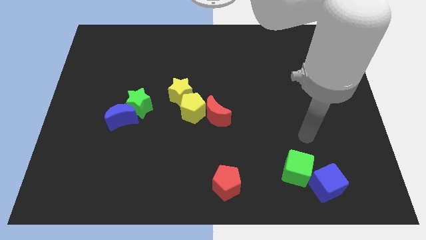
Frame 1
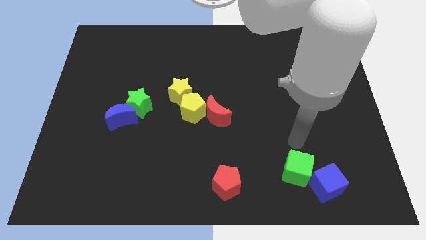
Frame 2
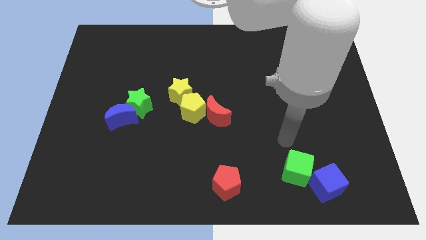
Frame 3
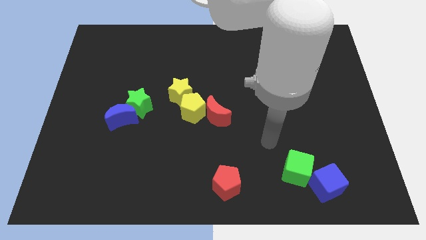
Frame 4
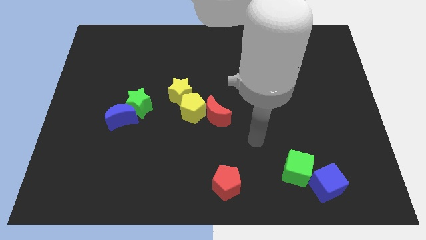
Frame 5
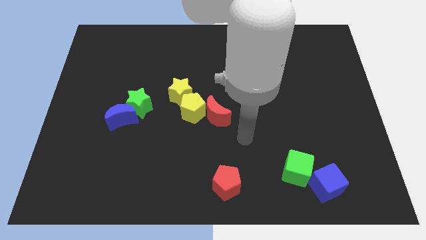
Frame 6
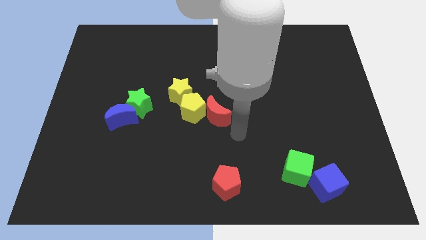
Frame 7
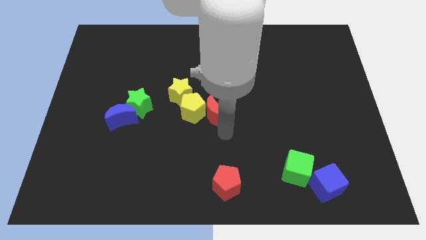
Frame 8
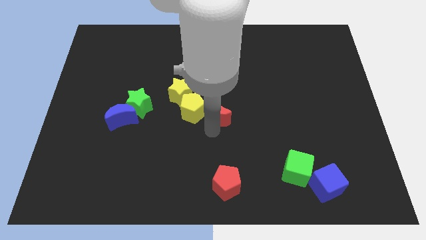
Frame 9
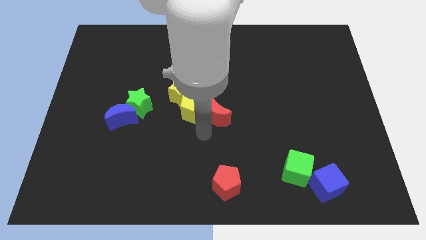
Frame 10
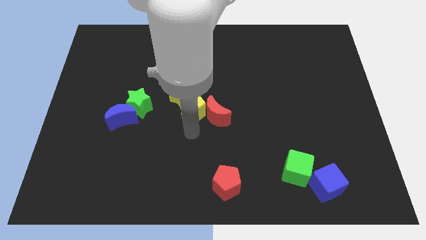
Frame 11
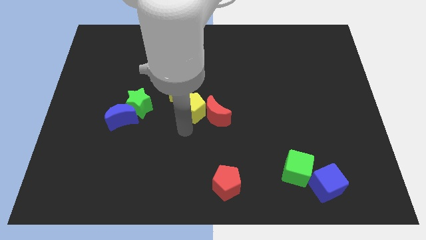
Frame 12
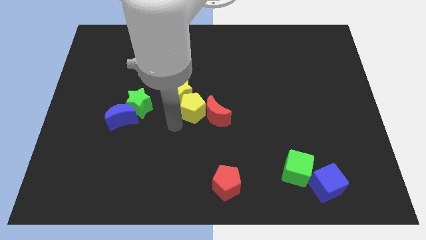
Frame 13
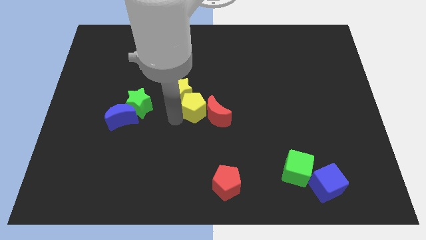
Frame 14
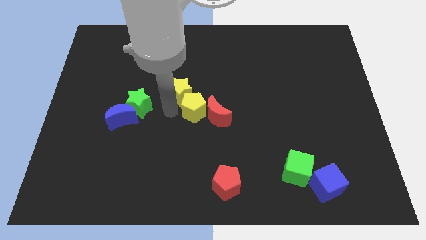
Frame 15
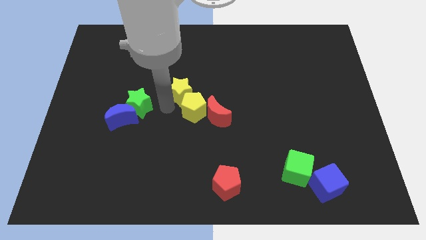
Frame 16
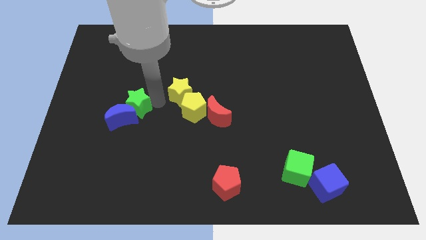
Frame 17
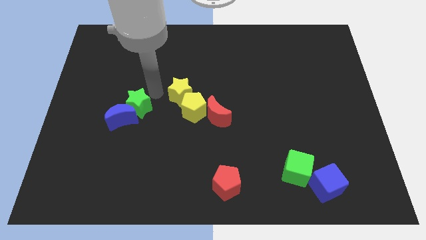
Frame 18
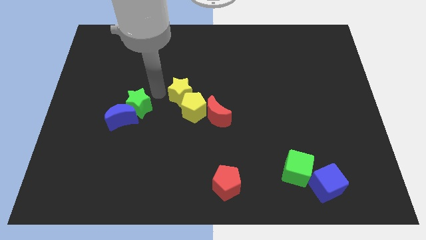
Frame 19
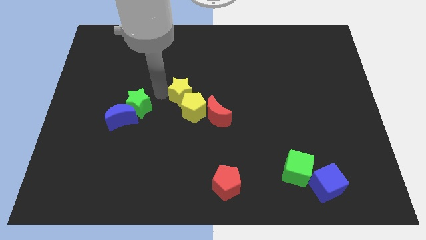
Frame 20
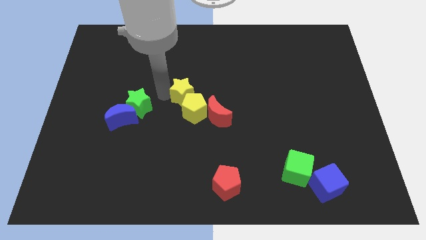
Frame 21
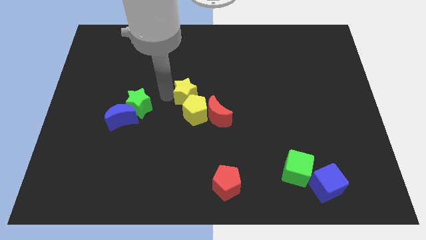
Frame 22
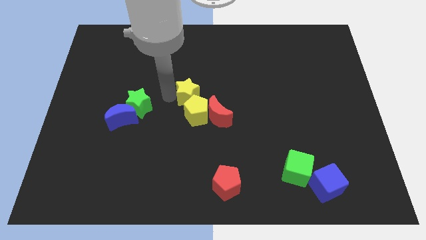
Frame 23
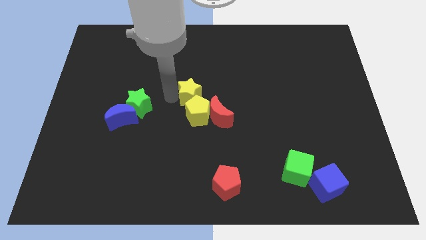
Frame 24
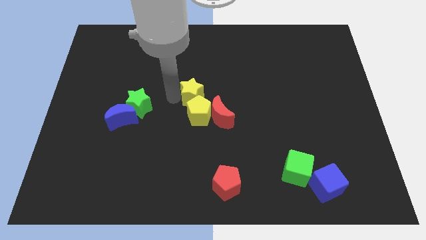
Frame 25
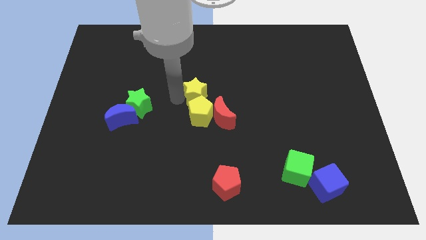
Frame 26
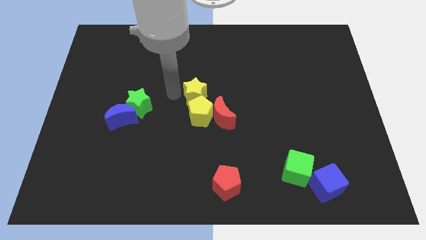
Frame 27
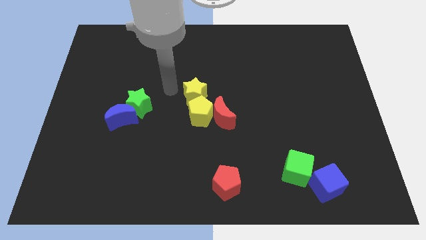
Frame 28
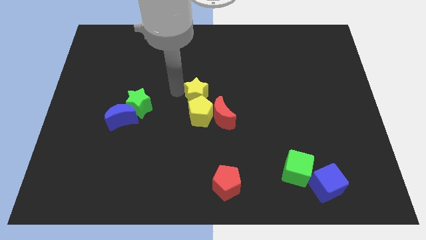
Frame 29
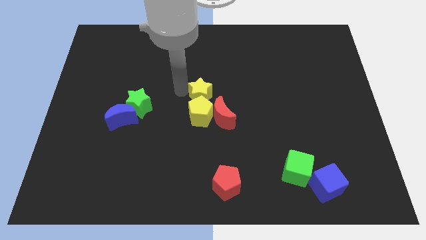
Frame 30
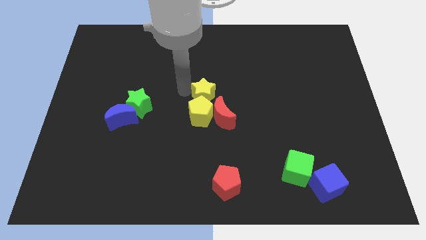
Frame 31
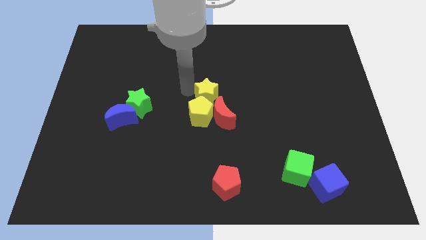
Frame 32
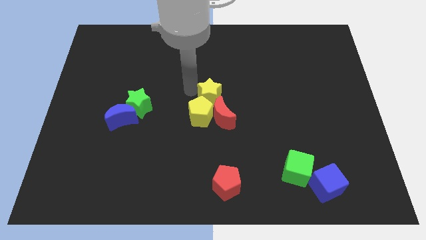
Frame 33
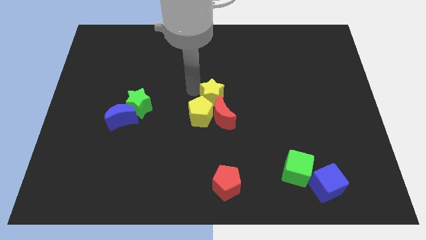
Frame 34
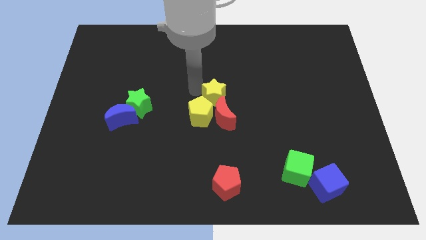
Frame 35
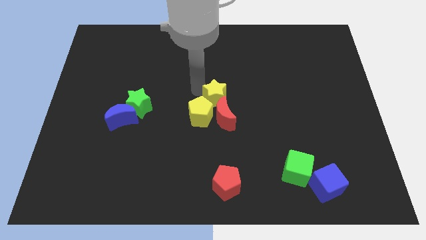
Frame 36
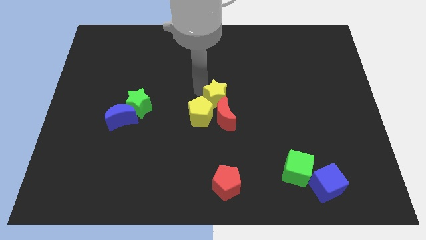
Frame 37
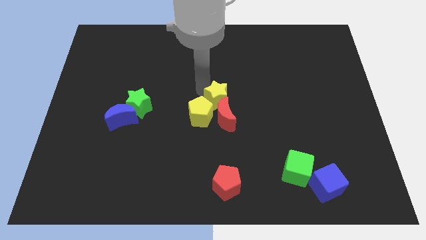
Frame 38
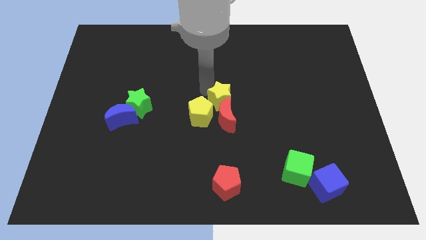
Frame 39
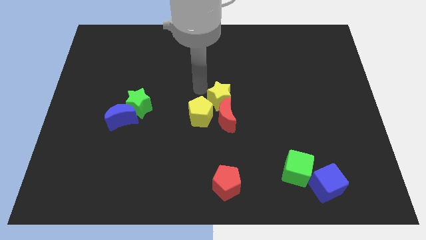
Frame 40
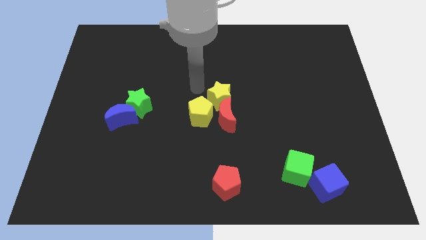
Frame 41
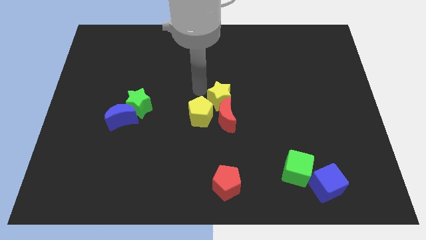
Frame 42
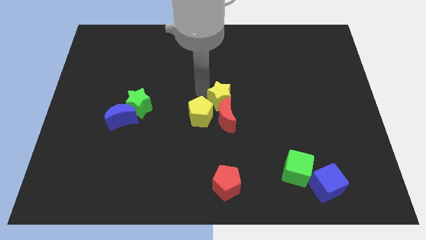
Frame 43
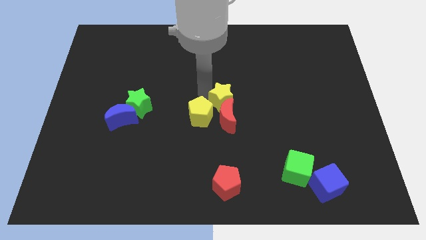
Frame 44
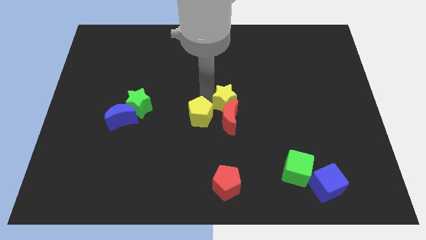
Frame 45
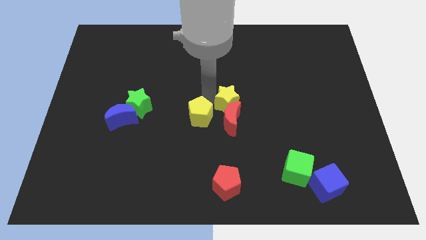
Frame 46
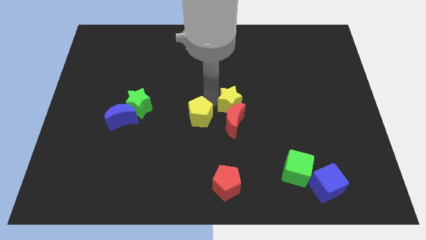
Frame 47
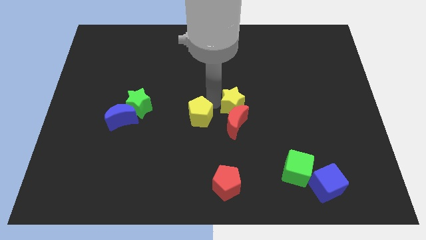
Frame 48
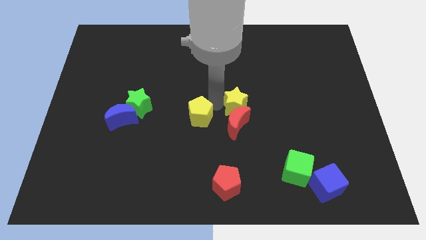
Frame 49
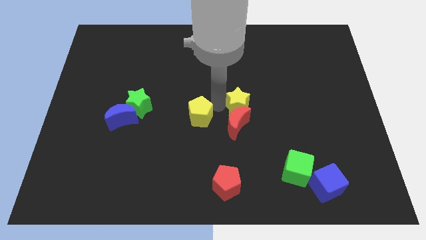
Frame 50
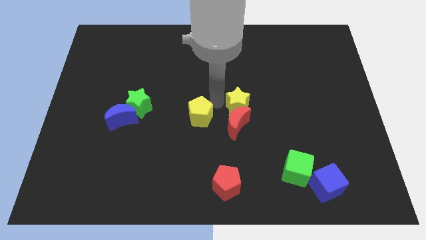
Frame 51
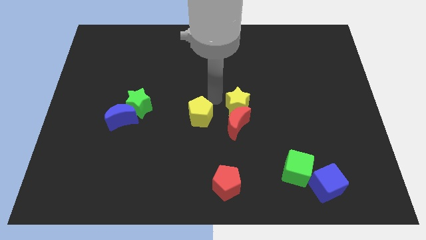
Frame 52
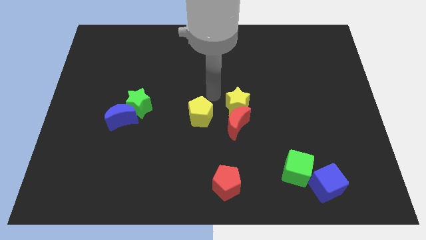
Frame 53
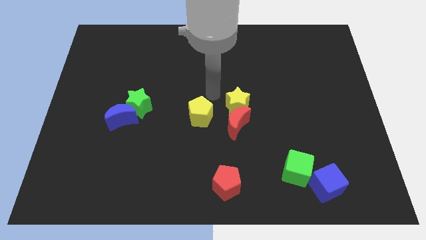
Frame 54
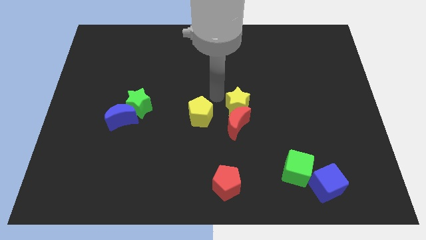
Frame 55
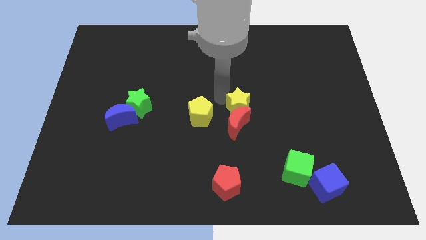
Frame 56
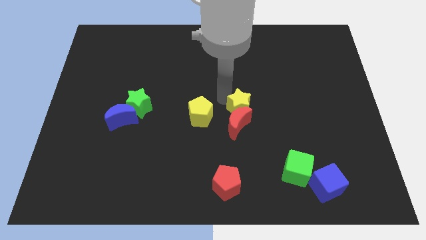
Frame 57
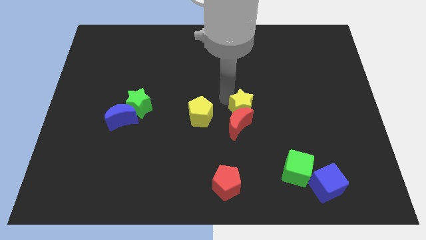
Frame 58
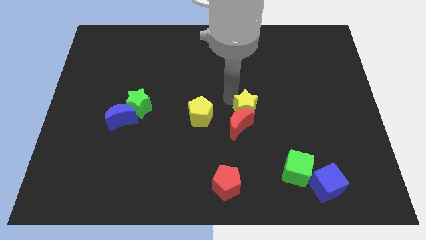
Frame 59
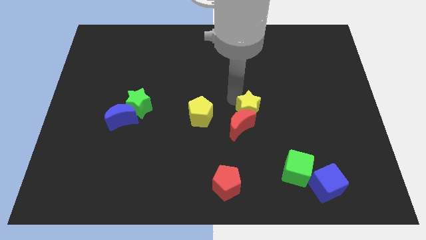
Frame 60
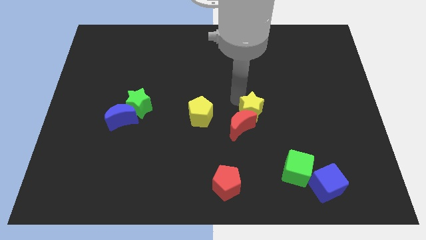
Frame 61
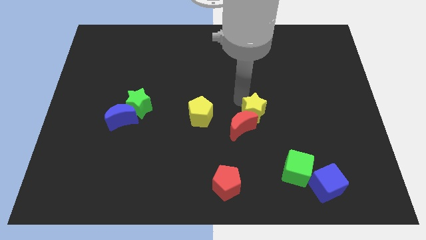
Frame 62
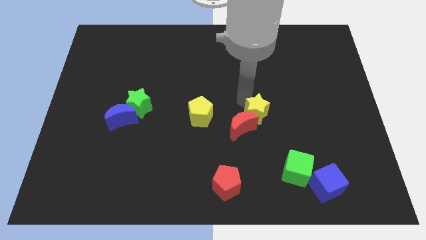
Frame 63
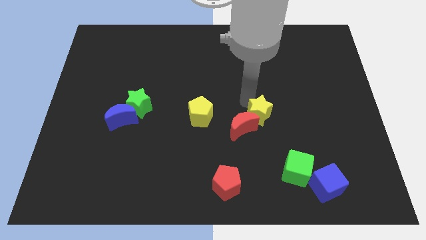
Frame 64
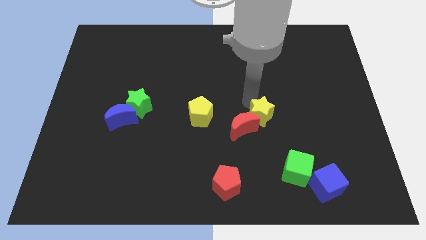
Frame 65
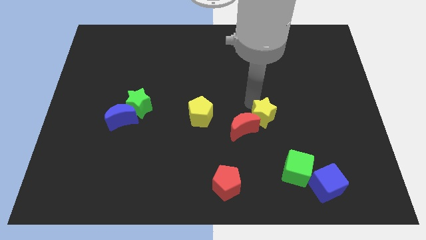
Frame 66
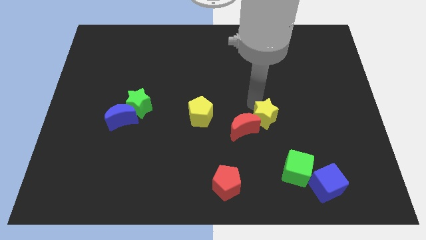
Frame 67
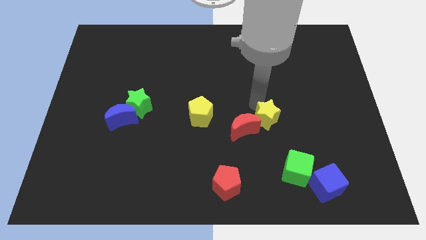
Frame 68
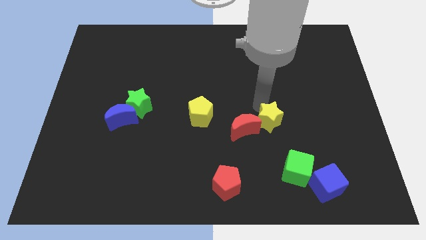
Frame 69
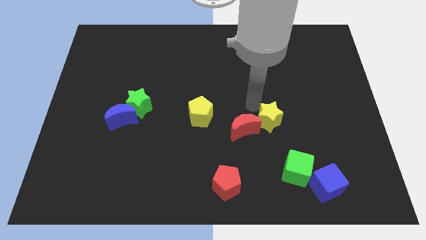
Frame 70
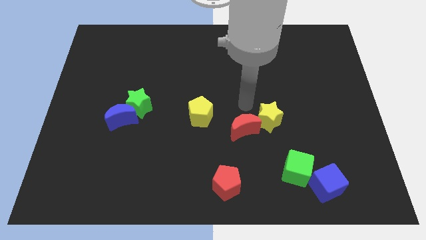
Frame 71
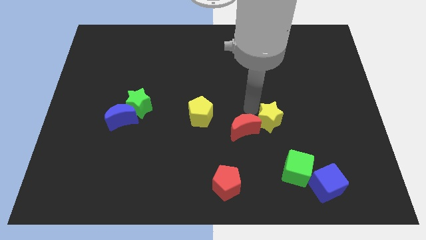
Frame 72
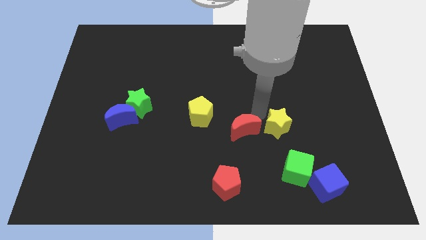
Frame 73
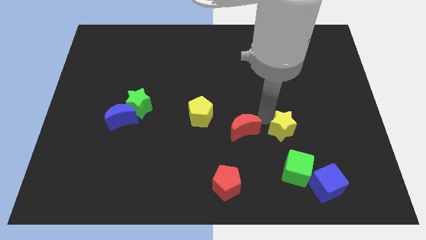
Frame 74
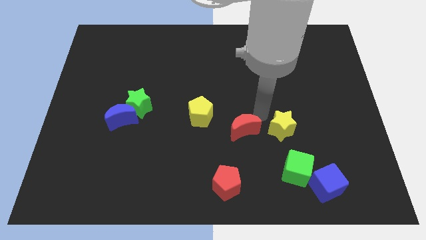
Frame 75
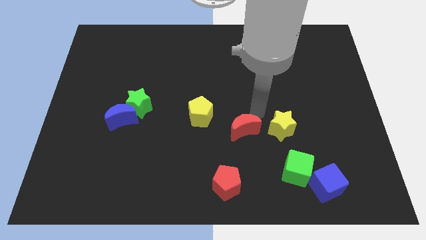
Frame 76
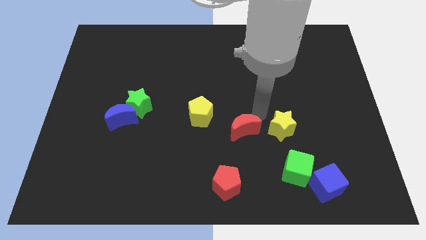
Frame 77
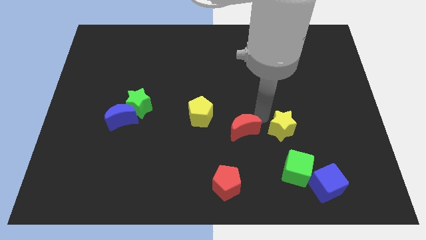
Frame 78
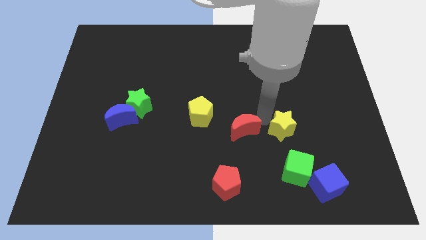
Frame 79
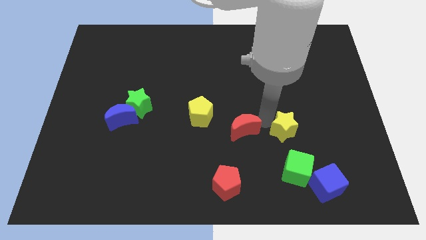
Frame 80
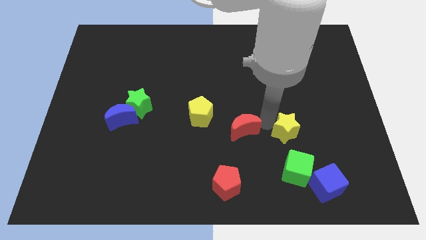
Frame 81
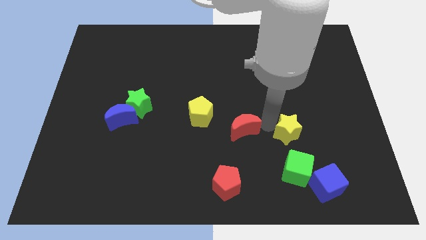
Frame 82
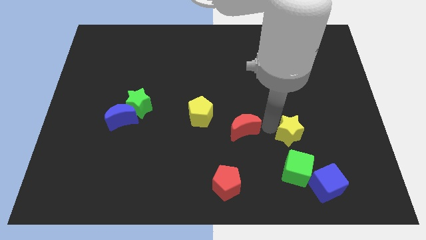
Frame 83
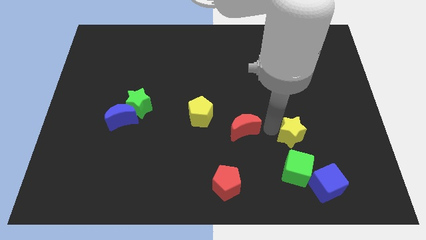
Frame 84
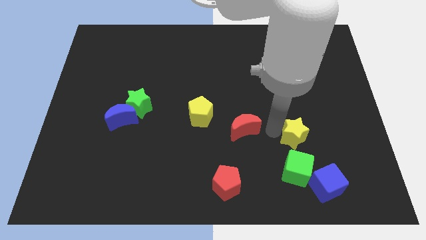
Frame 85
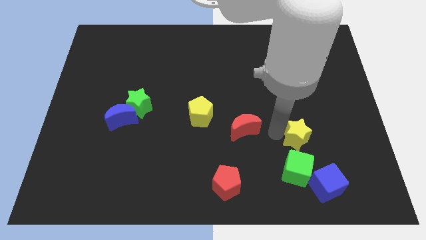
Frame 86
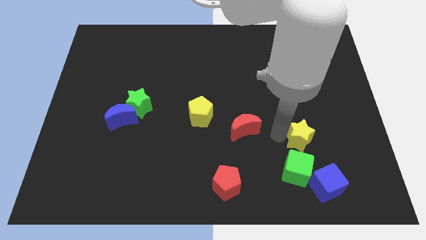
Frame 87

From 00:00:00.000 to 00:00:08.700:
put the yellow star to the top right side of the green cube
